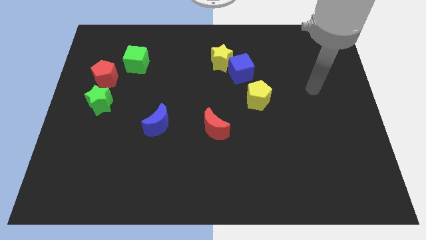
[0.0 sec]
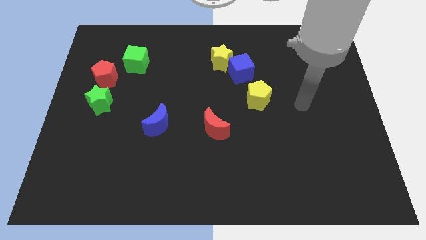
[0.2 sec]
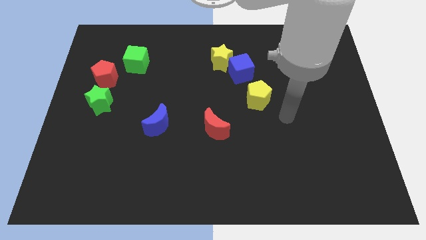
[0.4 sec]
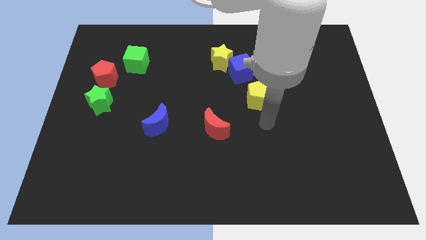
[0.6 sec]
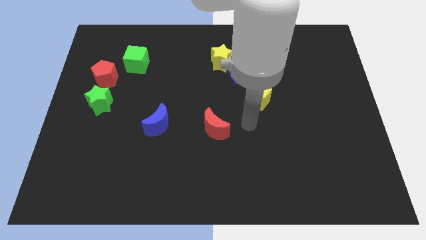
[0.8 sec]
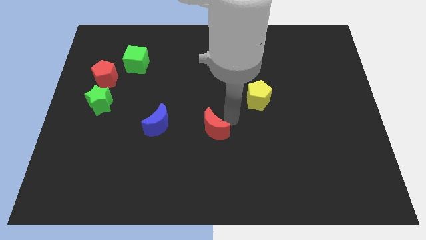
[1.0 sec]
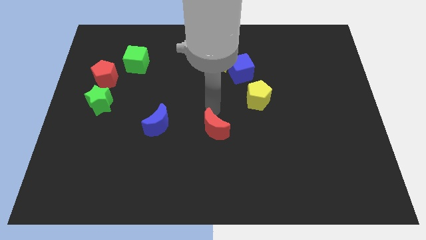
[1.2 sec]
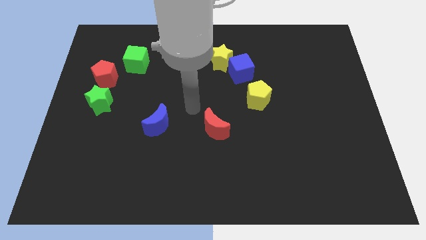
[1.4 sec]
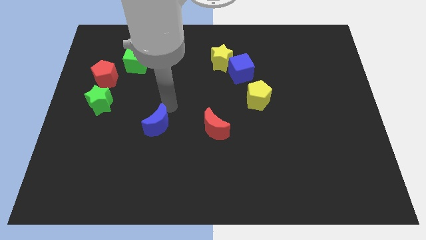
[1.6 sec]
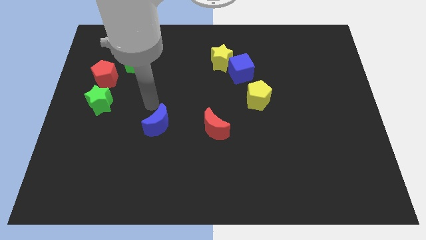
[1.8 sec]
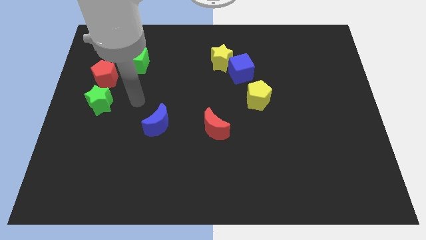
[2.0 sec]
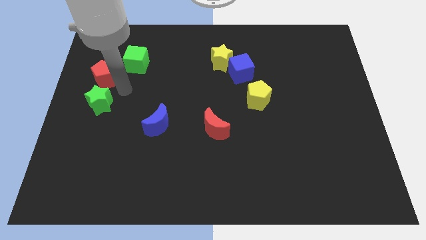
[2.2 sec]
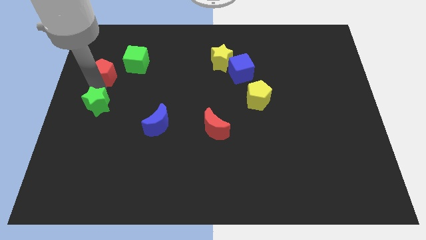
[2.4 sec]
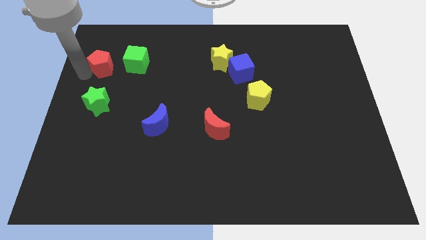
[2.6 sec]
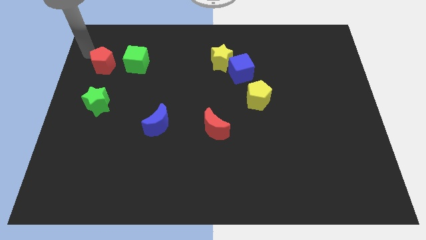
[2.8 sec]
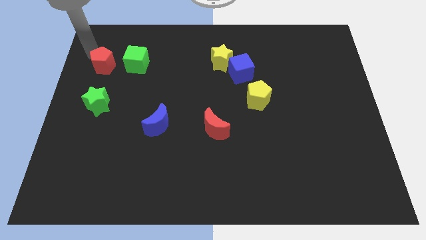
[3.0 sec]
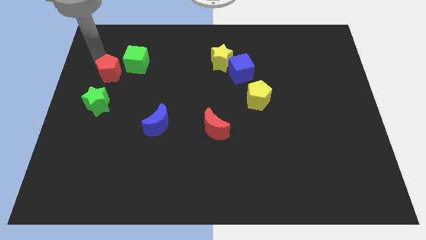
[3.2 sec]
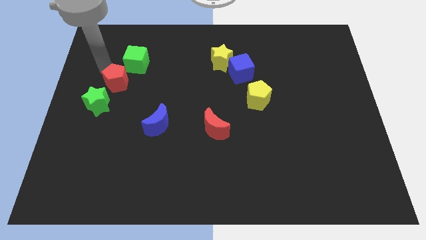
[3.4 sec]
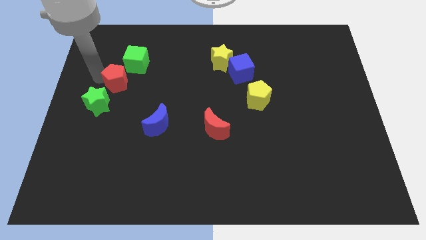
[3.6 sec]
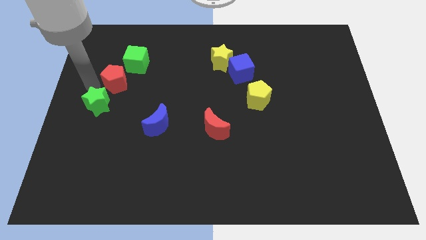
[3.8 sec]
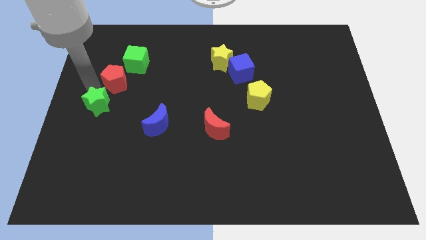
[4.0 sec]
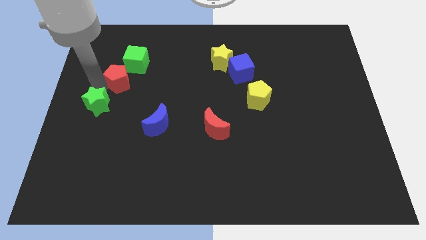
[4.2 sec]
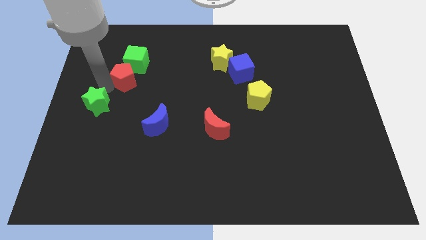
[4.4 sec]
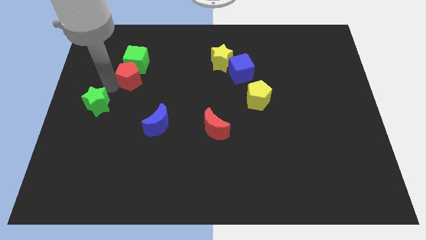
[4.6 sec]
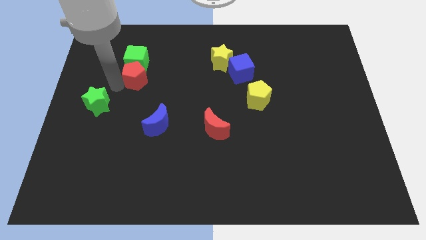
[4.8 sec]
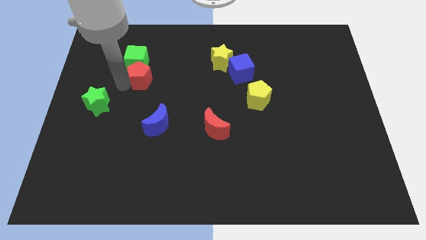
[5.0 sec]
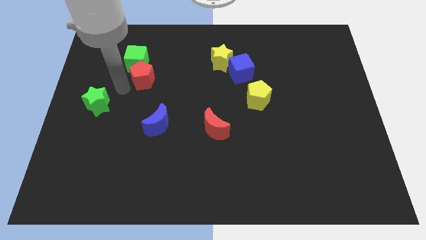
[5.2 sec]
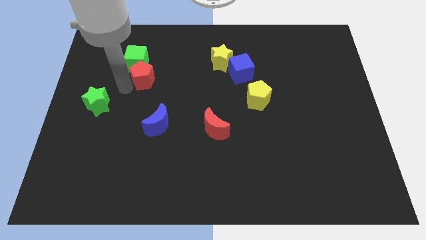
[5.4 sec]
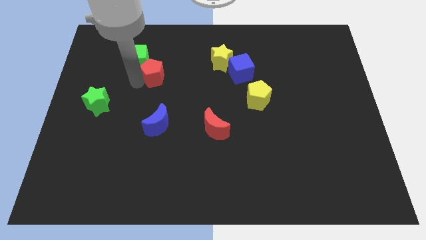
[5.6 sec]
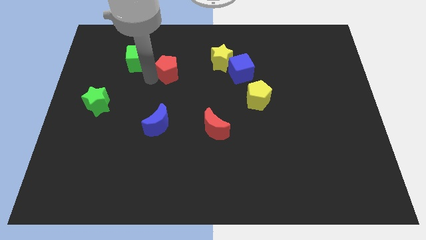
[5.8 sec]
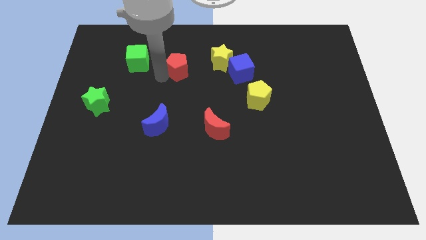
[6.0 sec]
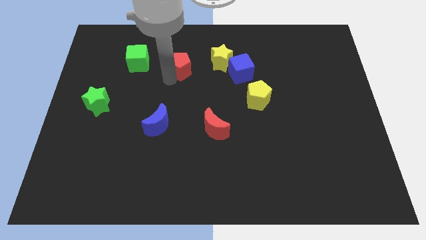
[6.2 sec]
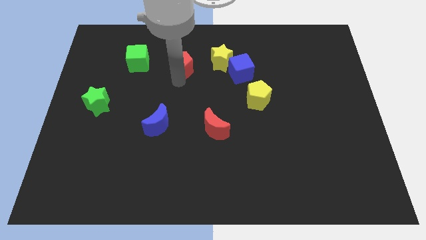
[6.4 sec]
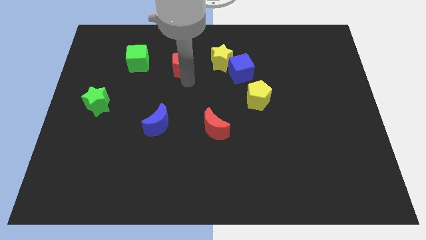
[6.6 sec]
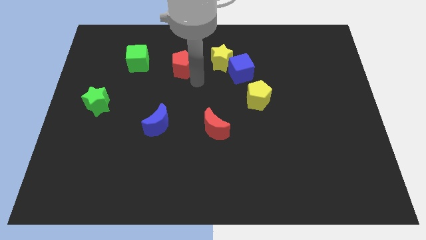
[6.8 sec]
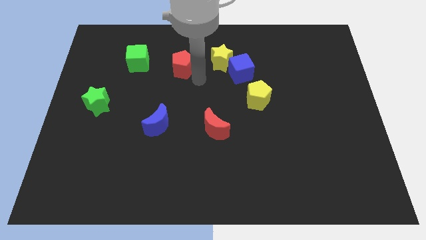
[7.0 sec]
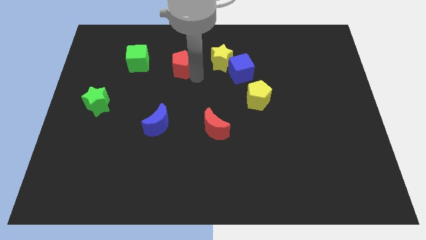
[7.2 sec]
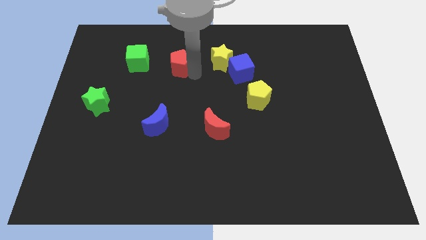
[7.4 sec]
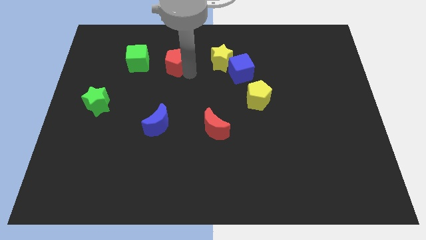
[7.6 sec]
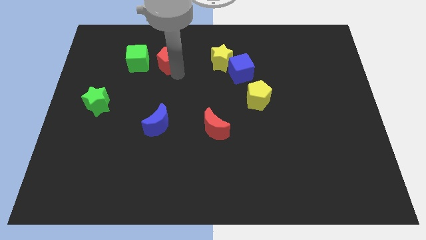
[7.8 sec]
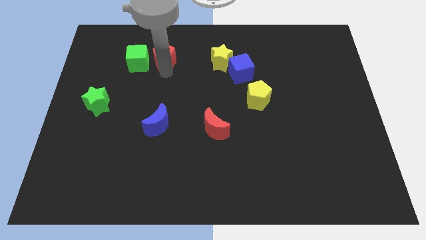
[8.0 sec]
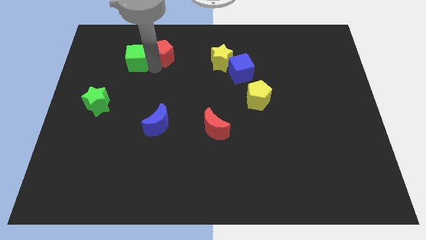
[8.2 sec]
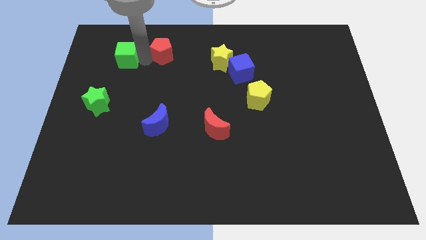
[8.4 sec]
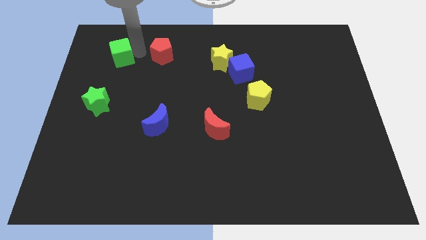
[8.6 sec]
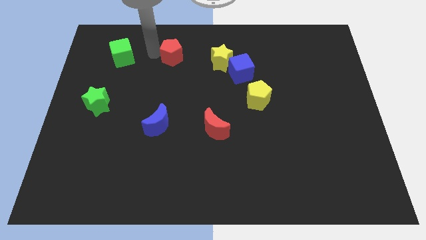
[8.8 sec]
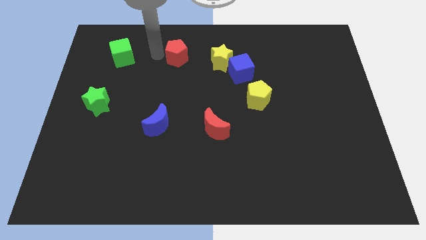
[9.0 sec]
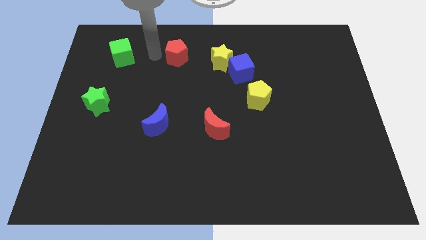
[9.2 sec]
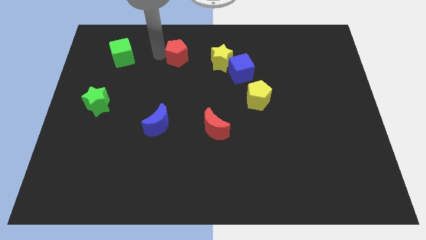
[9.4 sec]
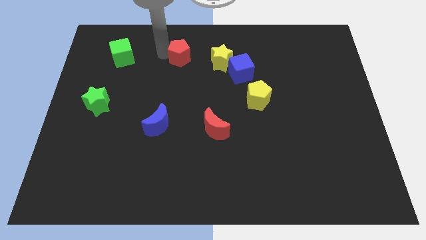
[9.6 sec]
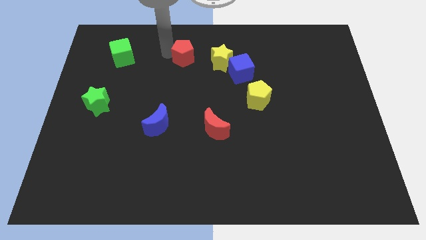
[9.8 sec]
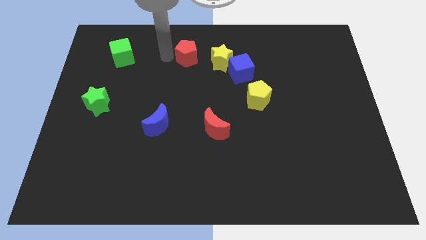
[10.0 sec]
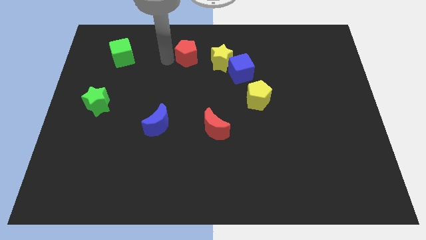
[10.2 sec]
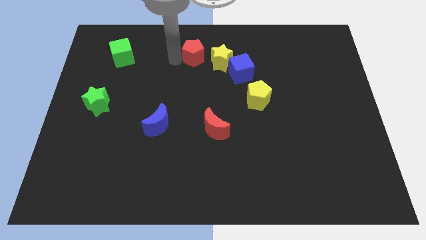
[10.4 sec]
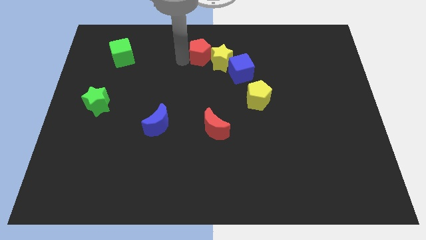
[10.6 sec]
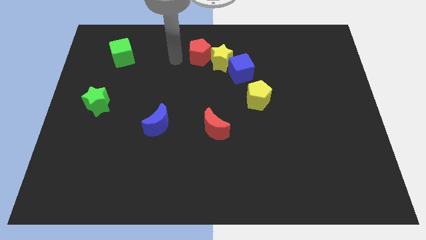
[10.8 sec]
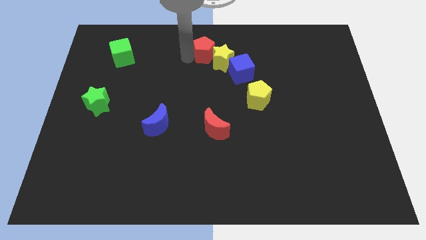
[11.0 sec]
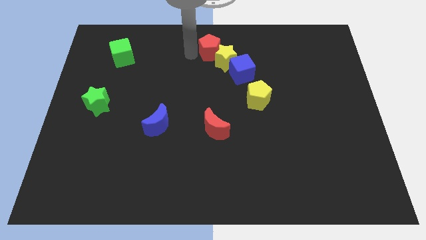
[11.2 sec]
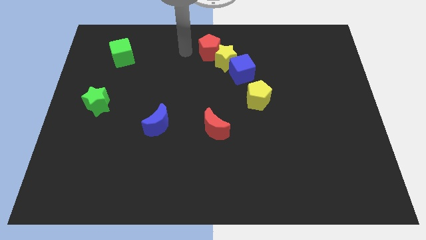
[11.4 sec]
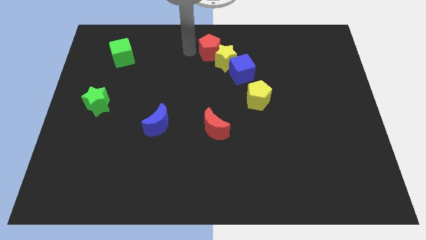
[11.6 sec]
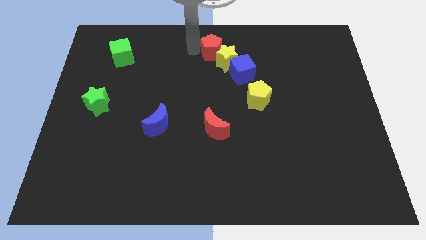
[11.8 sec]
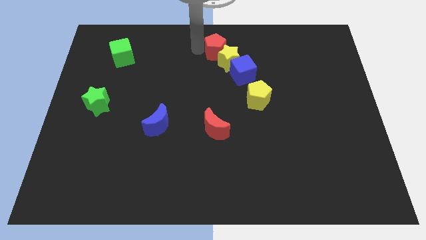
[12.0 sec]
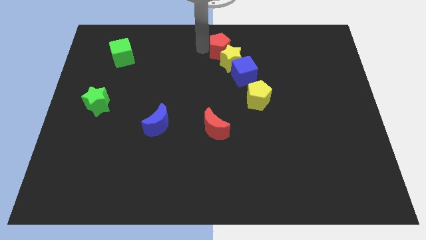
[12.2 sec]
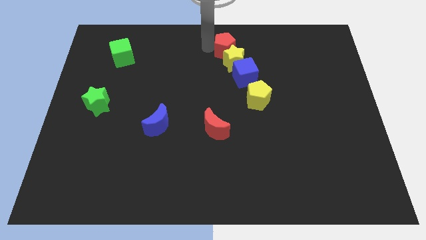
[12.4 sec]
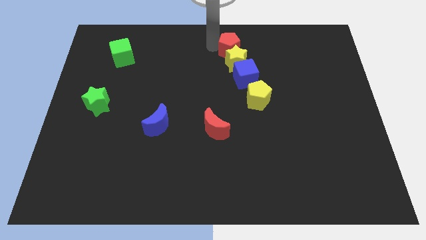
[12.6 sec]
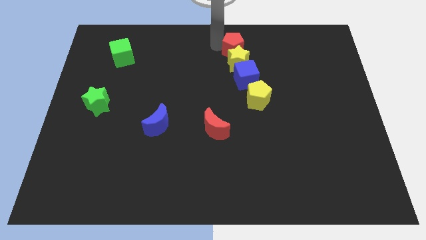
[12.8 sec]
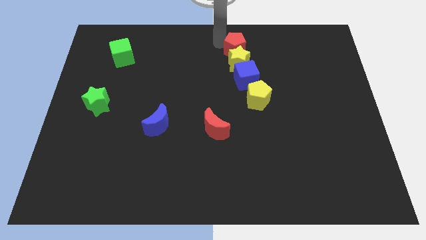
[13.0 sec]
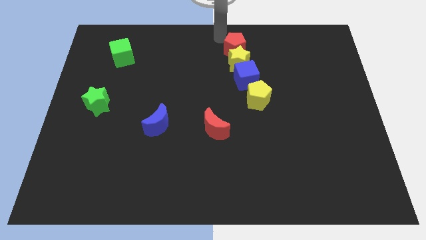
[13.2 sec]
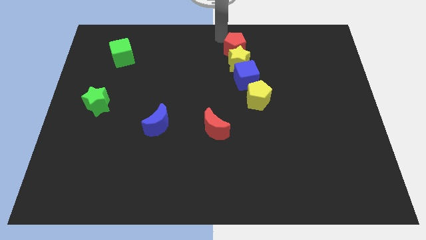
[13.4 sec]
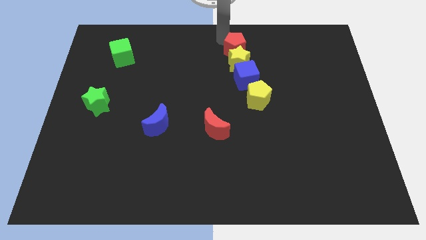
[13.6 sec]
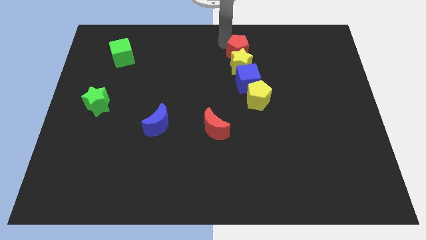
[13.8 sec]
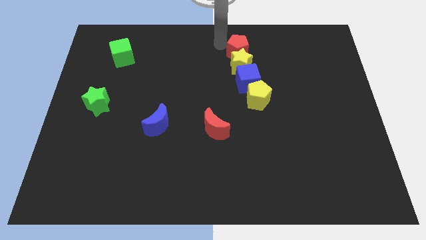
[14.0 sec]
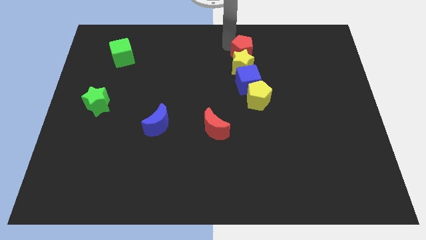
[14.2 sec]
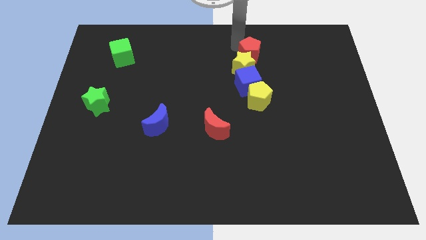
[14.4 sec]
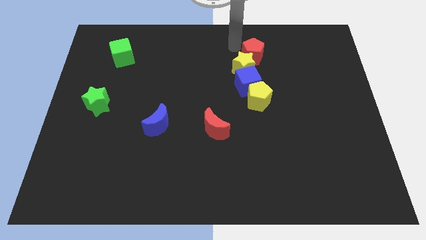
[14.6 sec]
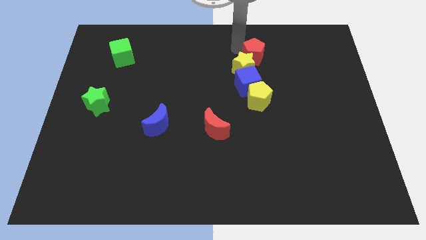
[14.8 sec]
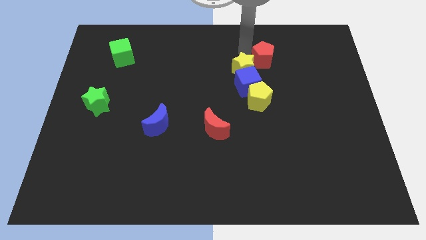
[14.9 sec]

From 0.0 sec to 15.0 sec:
push the red pentagon to the right of the yellow star
